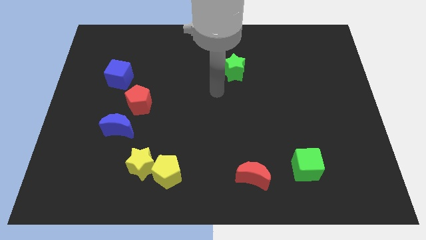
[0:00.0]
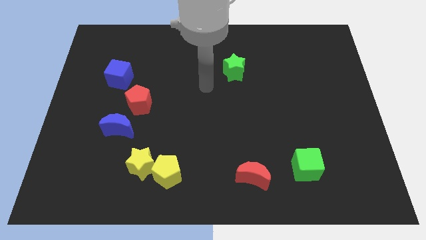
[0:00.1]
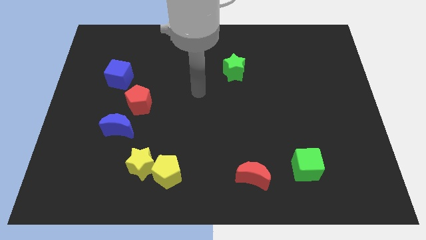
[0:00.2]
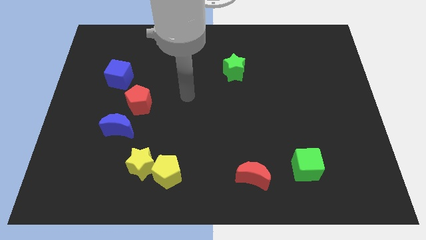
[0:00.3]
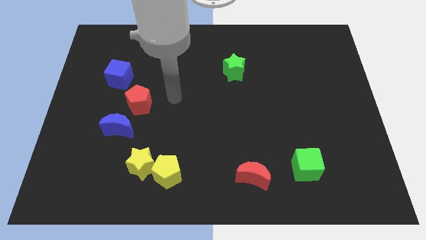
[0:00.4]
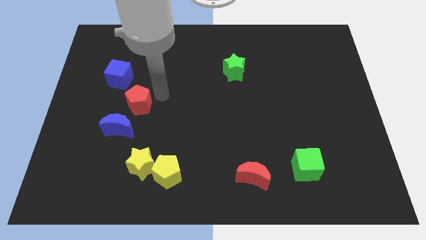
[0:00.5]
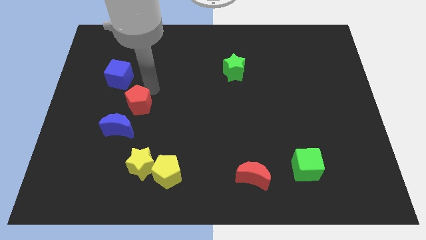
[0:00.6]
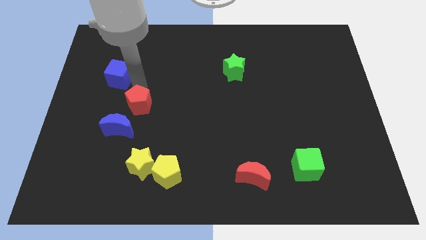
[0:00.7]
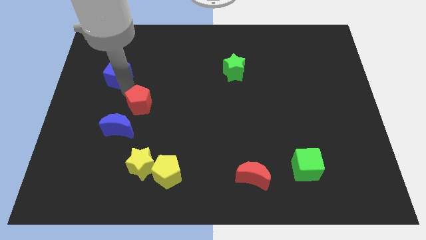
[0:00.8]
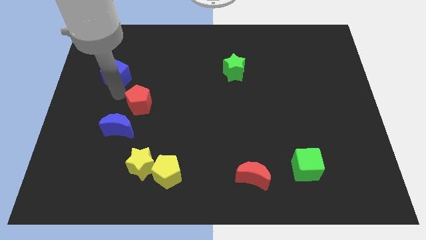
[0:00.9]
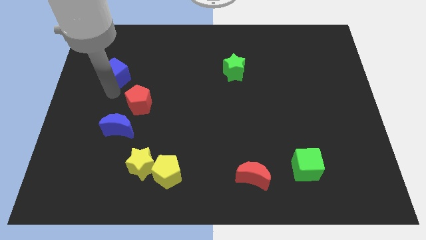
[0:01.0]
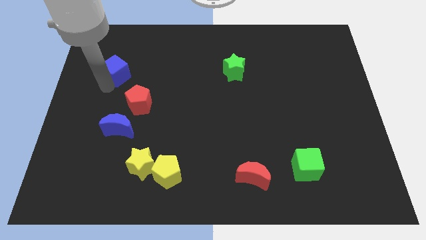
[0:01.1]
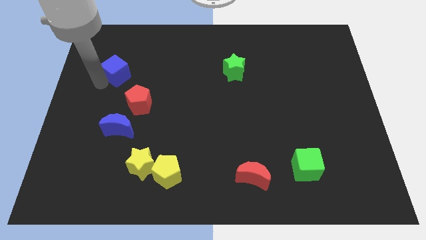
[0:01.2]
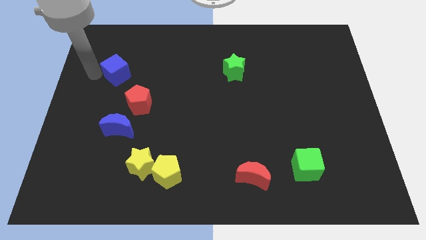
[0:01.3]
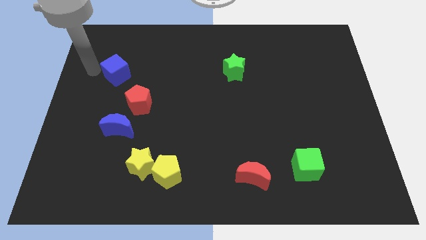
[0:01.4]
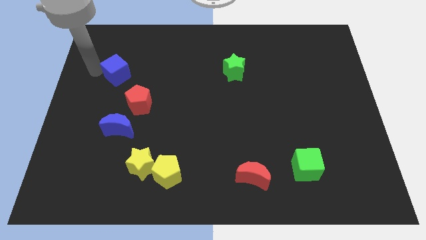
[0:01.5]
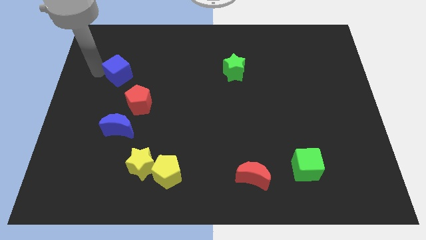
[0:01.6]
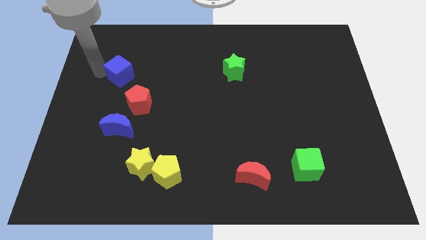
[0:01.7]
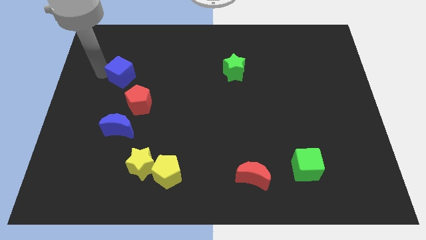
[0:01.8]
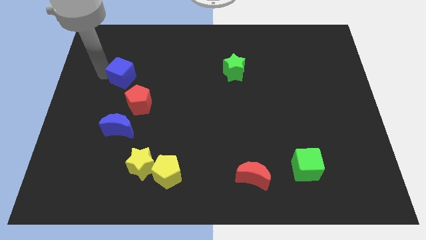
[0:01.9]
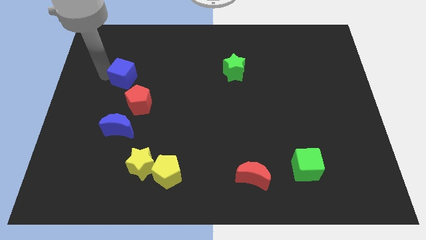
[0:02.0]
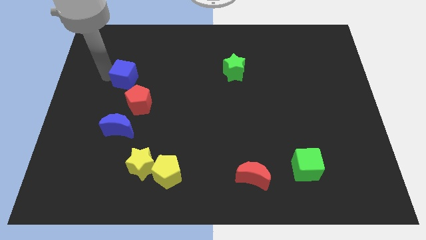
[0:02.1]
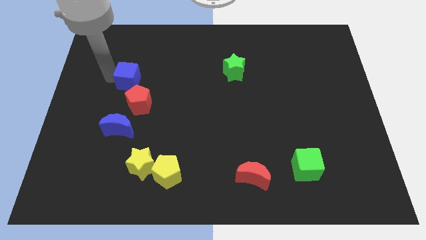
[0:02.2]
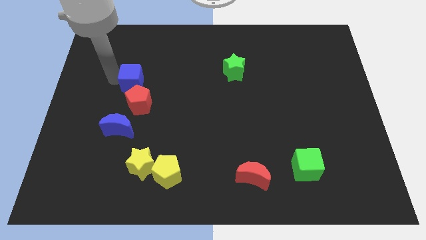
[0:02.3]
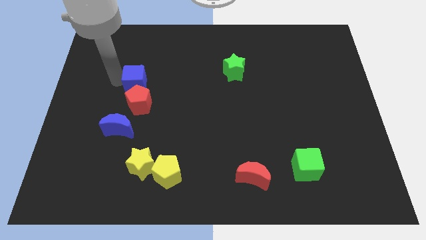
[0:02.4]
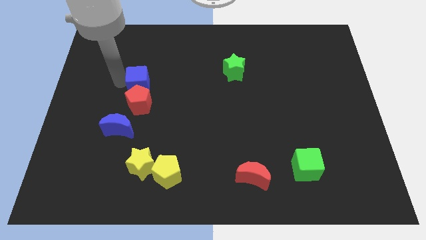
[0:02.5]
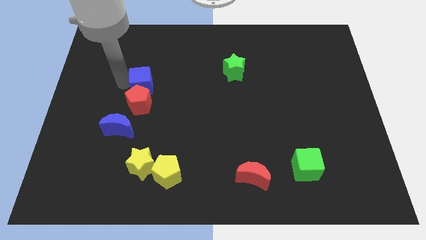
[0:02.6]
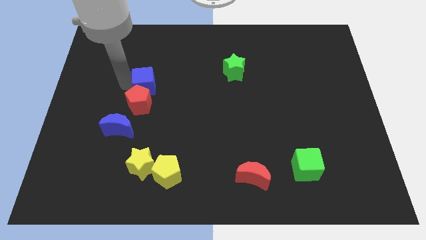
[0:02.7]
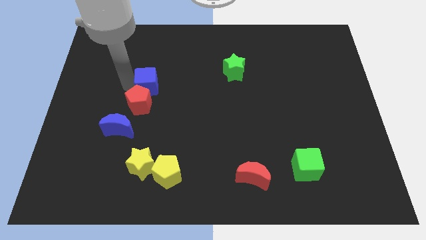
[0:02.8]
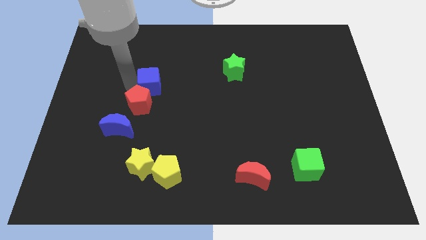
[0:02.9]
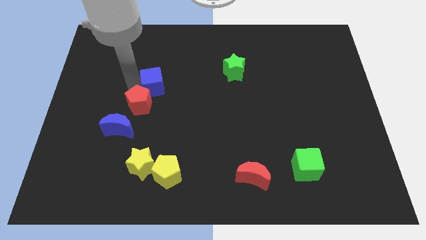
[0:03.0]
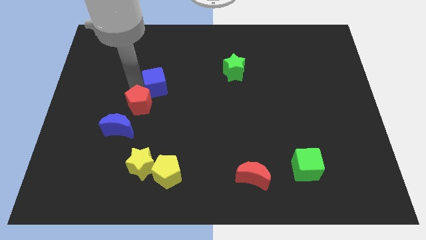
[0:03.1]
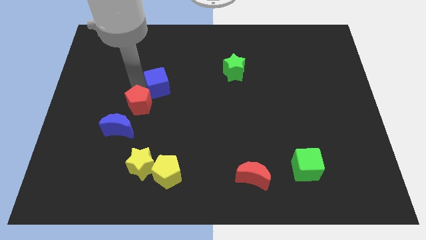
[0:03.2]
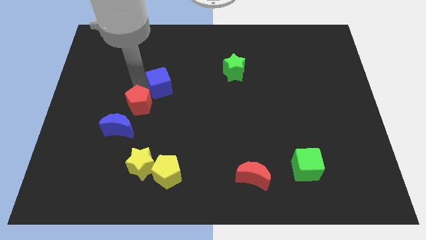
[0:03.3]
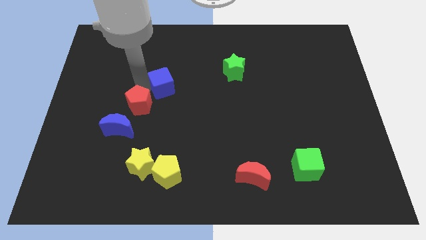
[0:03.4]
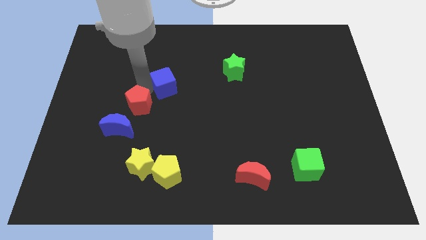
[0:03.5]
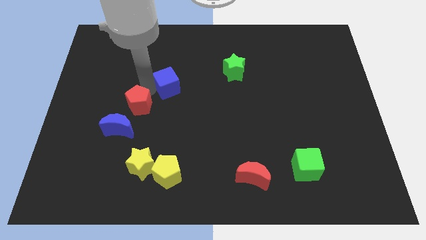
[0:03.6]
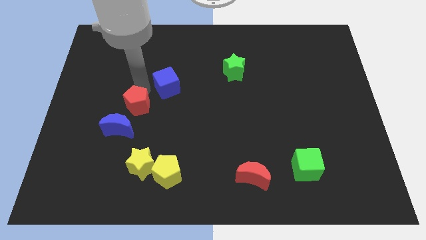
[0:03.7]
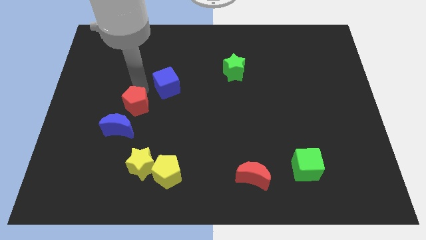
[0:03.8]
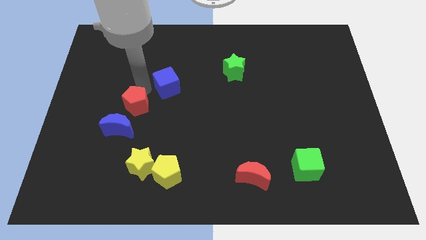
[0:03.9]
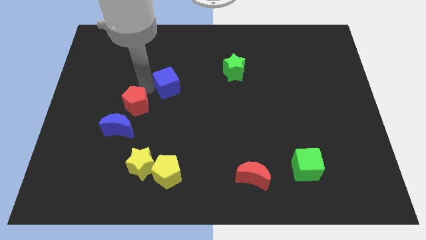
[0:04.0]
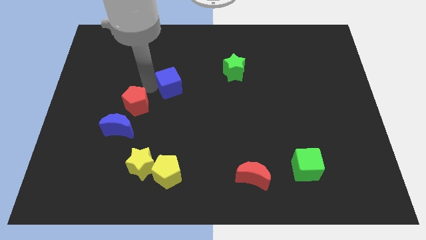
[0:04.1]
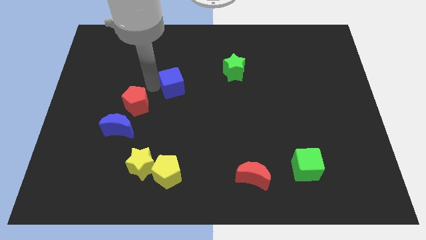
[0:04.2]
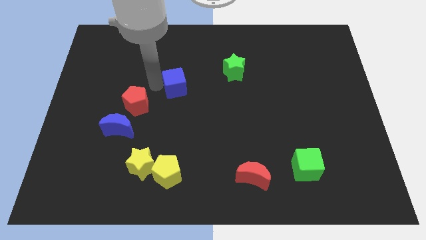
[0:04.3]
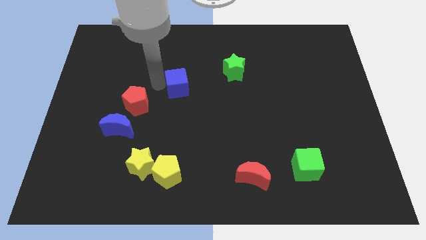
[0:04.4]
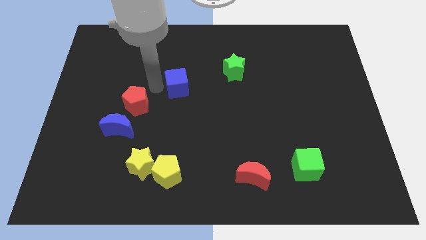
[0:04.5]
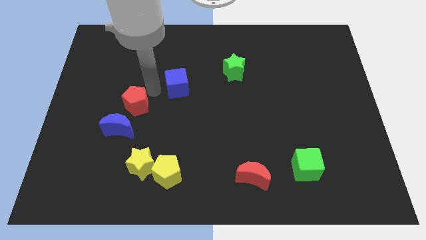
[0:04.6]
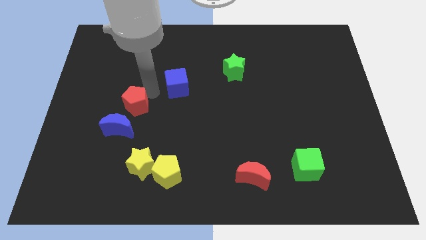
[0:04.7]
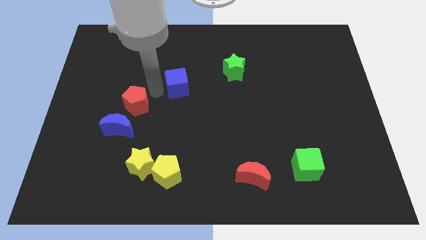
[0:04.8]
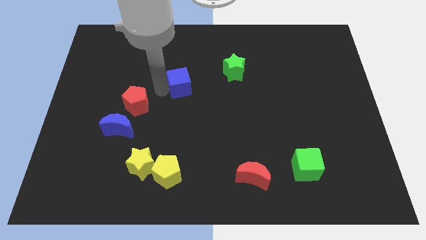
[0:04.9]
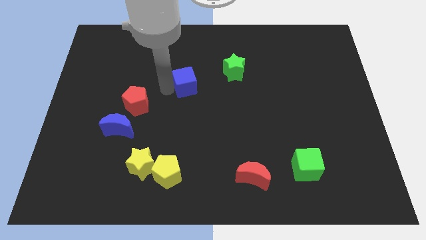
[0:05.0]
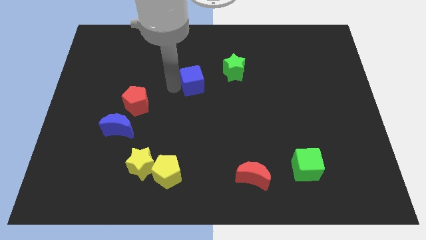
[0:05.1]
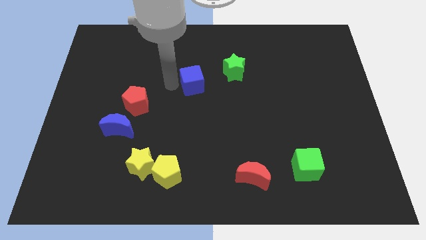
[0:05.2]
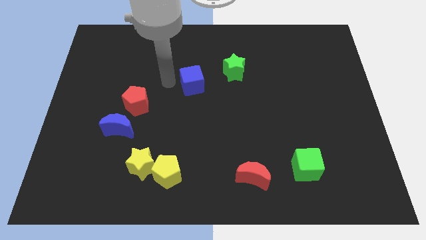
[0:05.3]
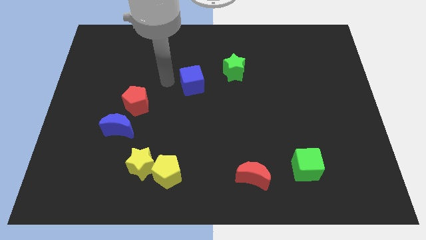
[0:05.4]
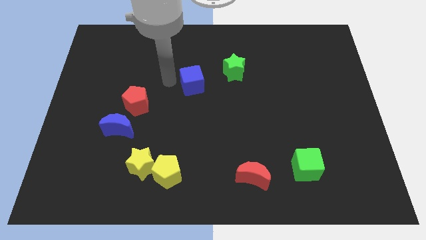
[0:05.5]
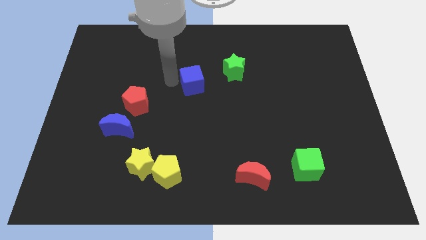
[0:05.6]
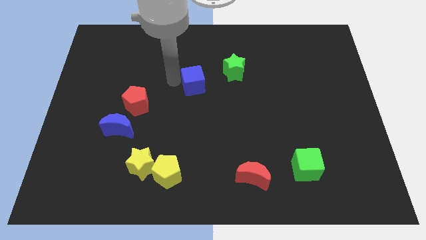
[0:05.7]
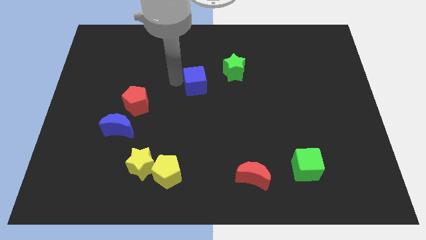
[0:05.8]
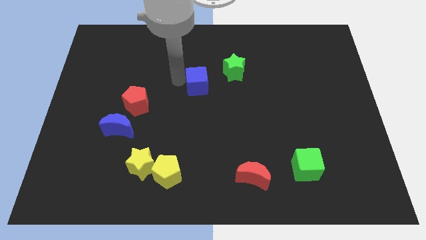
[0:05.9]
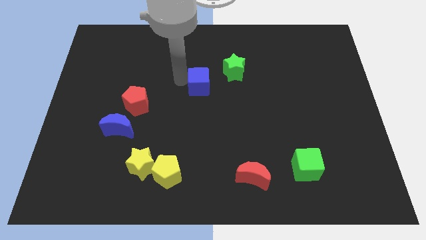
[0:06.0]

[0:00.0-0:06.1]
move the blue cube to the right

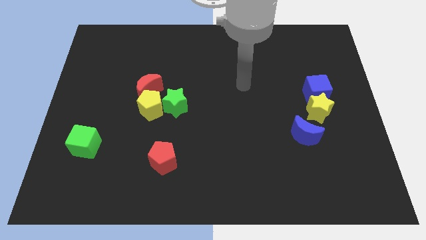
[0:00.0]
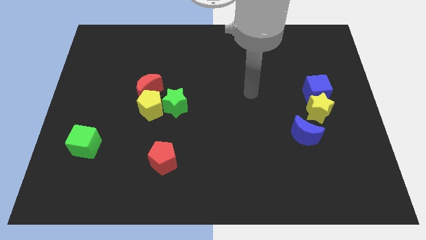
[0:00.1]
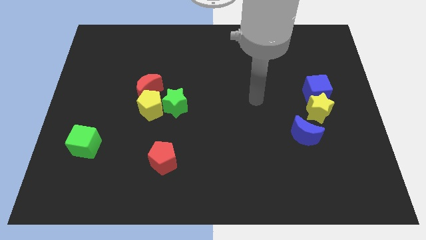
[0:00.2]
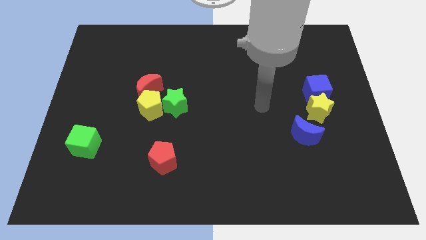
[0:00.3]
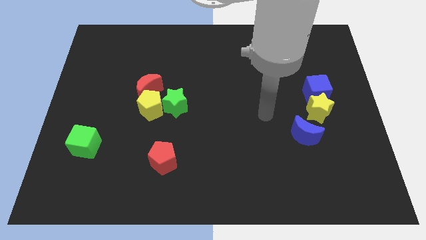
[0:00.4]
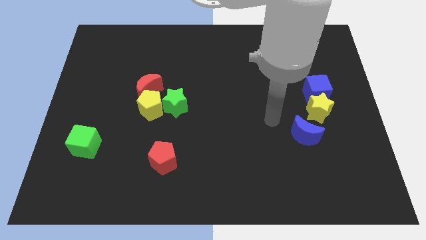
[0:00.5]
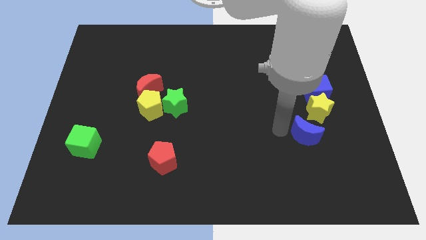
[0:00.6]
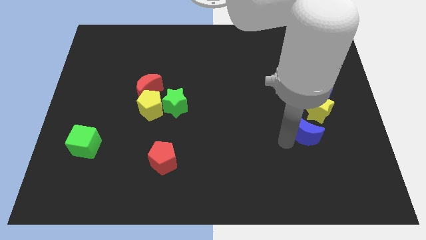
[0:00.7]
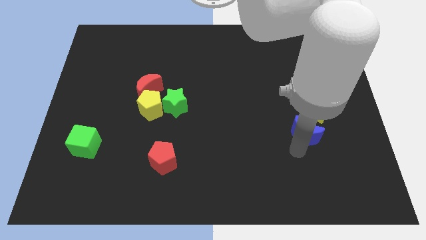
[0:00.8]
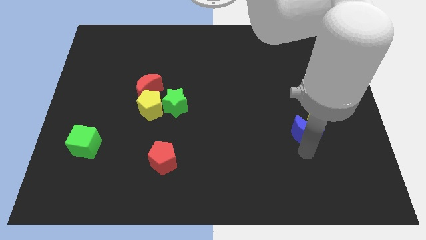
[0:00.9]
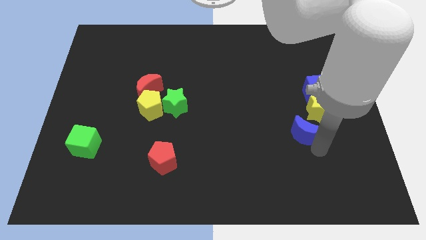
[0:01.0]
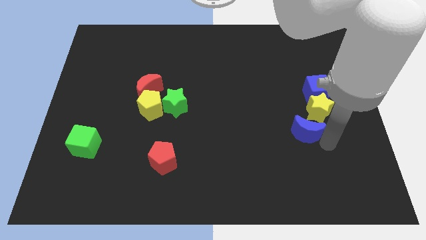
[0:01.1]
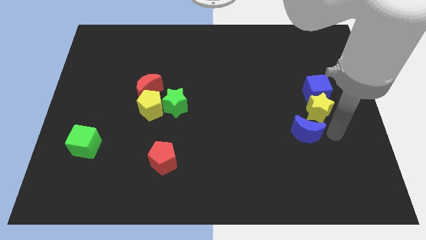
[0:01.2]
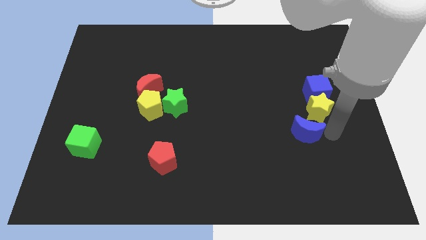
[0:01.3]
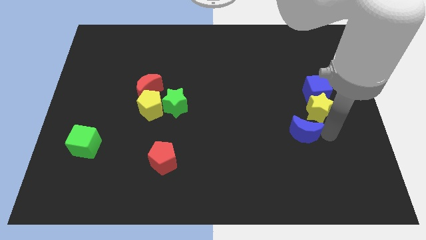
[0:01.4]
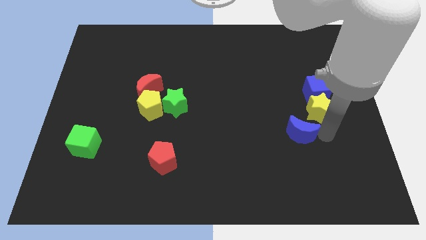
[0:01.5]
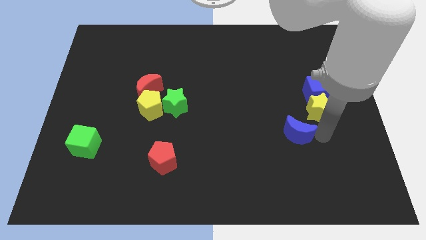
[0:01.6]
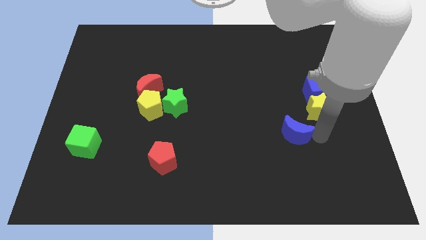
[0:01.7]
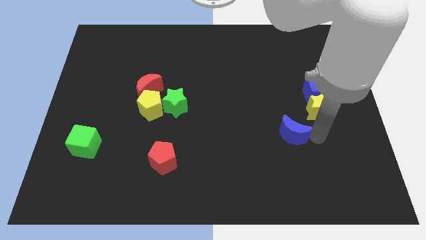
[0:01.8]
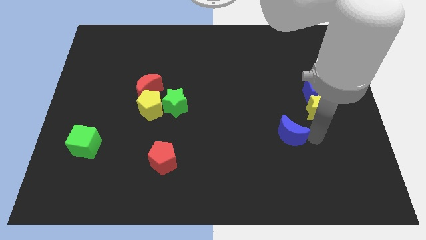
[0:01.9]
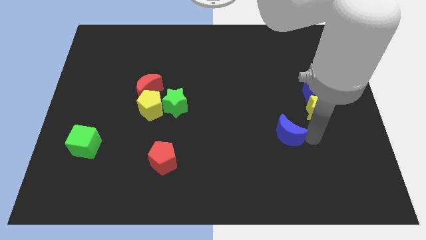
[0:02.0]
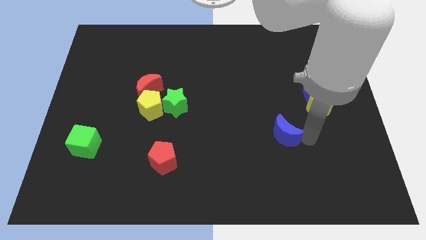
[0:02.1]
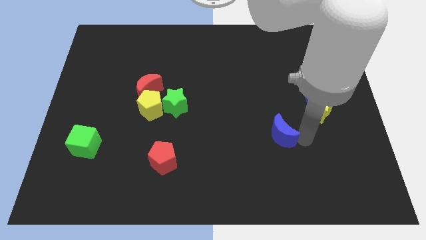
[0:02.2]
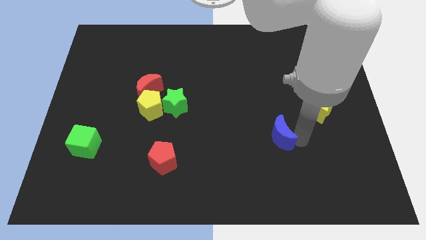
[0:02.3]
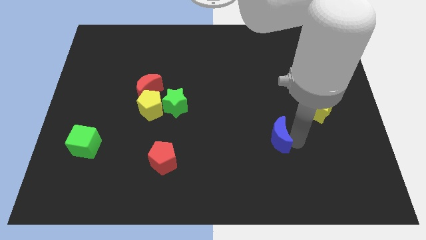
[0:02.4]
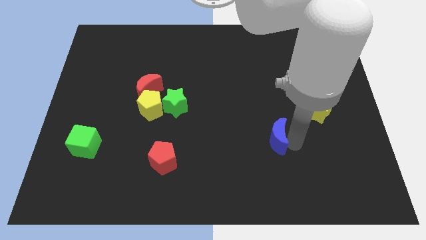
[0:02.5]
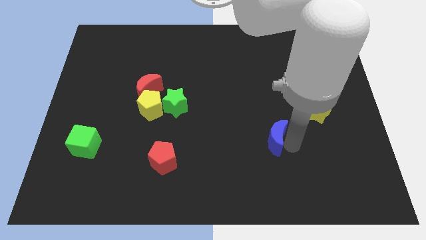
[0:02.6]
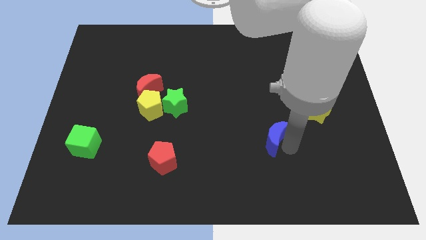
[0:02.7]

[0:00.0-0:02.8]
slide the blue moon to the left somewhat
